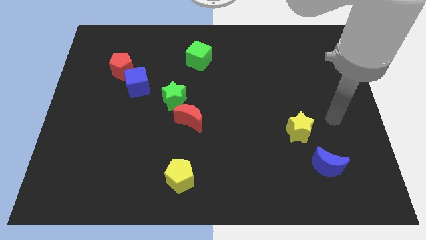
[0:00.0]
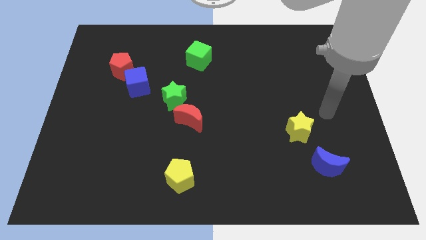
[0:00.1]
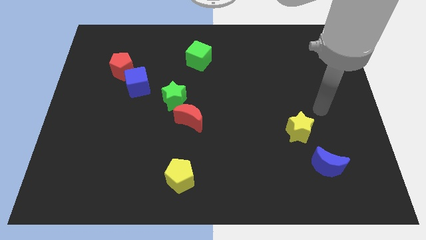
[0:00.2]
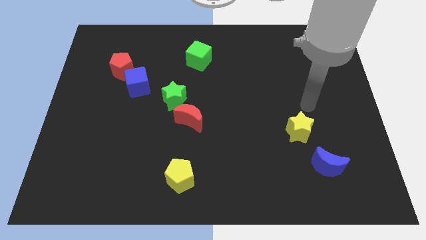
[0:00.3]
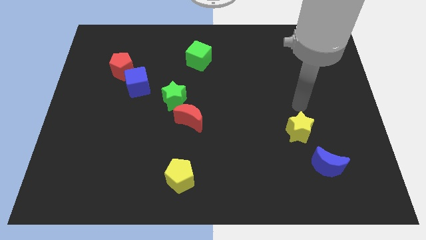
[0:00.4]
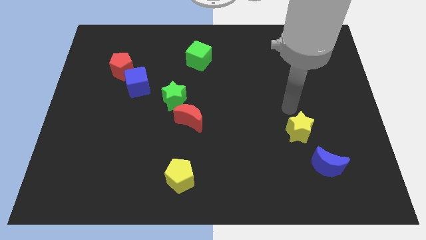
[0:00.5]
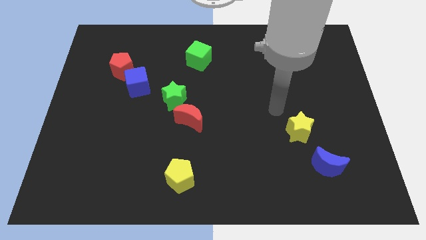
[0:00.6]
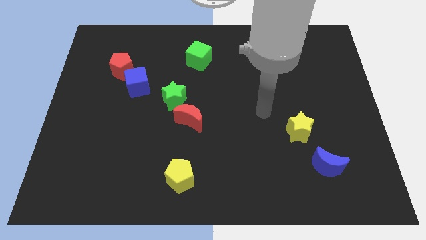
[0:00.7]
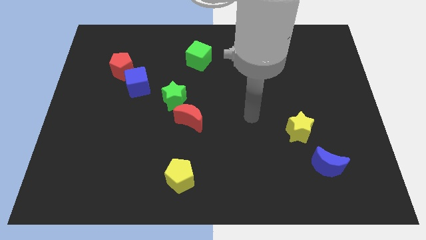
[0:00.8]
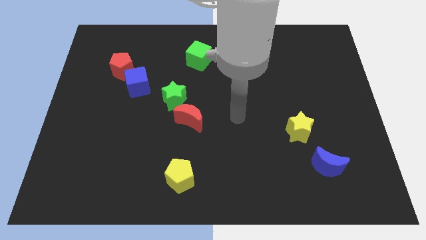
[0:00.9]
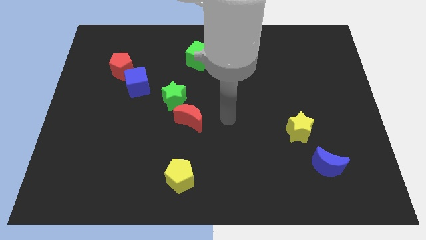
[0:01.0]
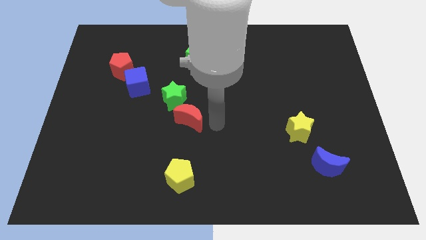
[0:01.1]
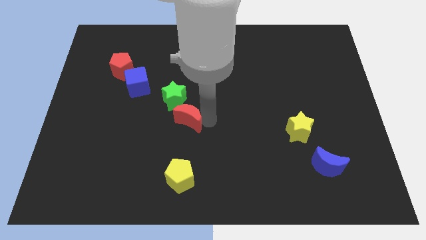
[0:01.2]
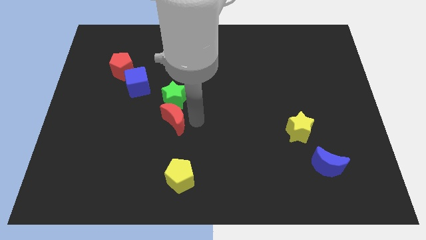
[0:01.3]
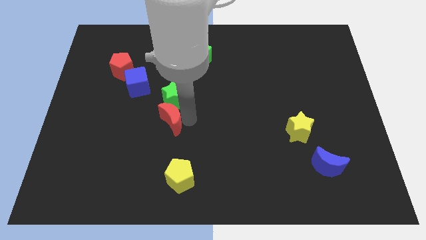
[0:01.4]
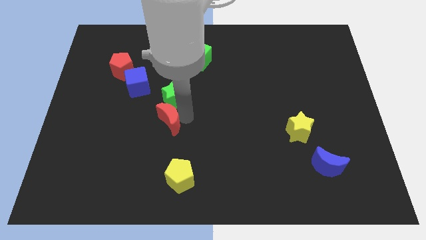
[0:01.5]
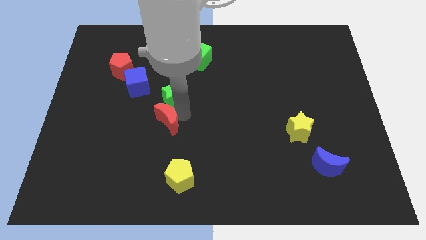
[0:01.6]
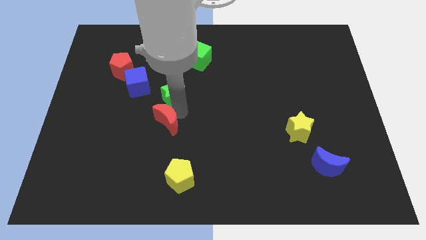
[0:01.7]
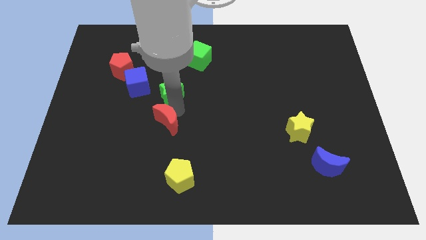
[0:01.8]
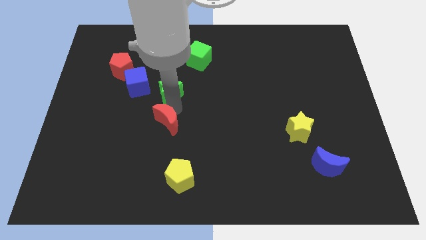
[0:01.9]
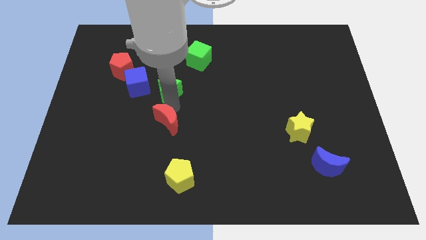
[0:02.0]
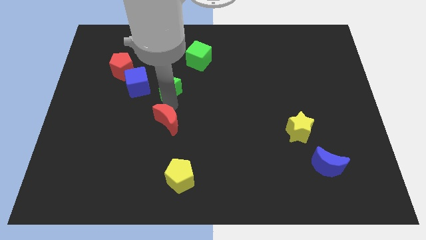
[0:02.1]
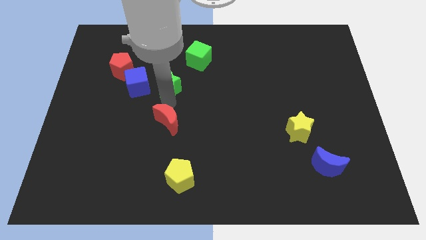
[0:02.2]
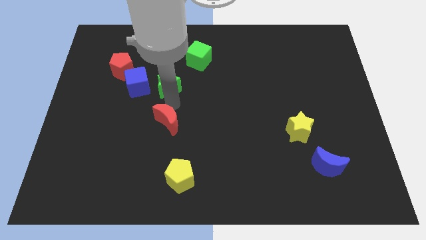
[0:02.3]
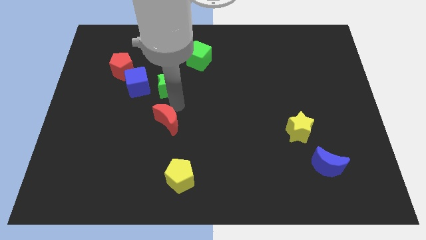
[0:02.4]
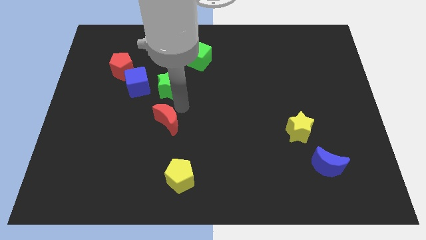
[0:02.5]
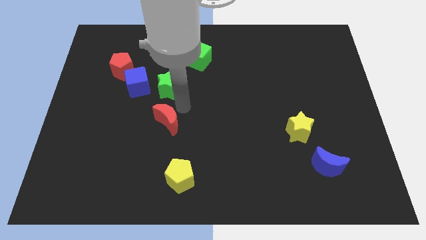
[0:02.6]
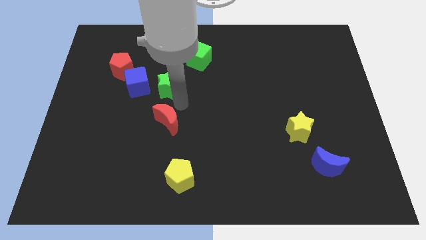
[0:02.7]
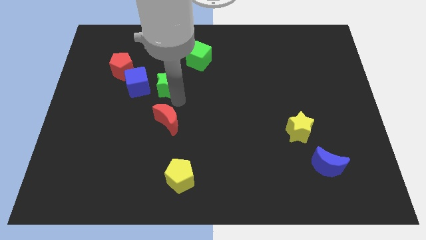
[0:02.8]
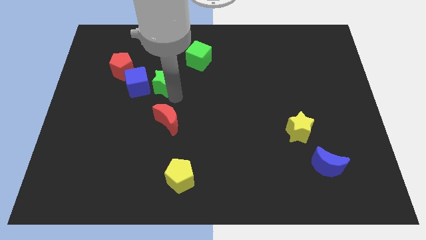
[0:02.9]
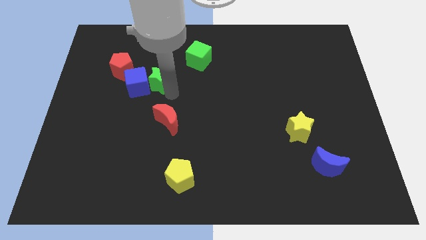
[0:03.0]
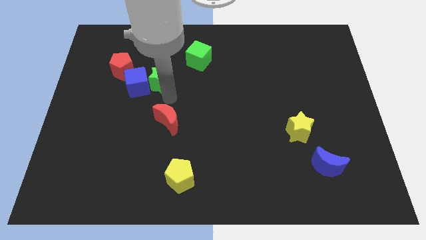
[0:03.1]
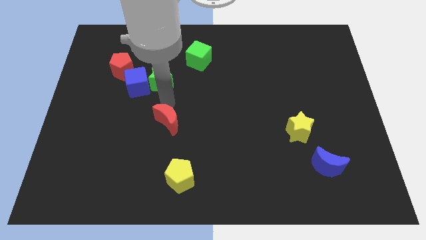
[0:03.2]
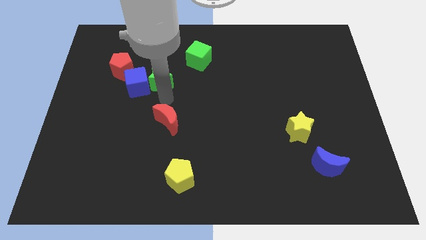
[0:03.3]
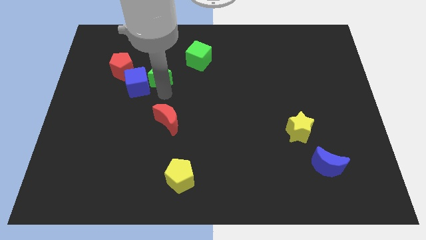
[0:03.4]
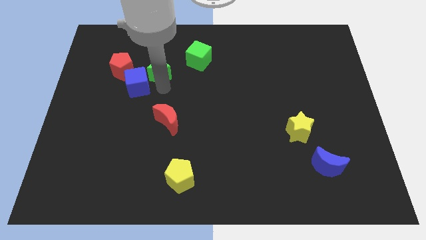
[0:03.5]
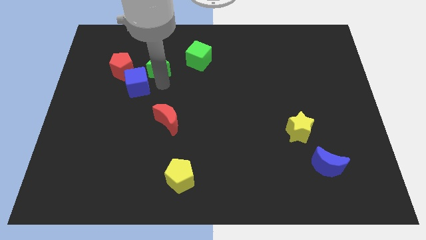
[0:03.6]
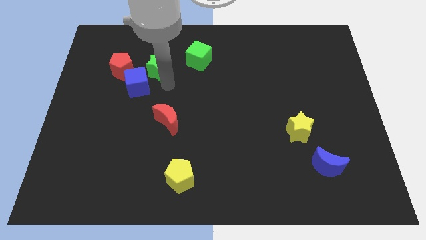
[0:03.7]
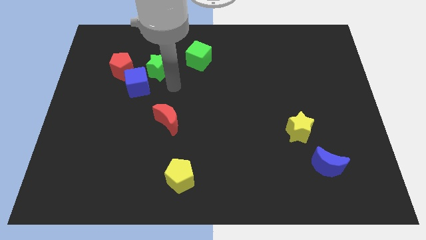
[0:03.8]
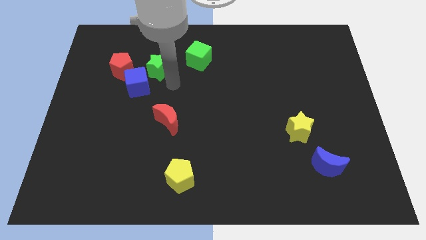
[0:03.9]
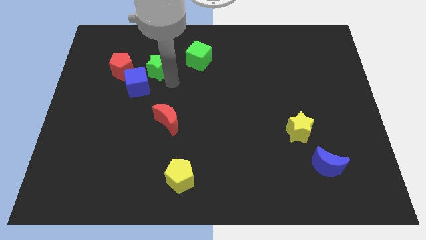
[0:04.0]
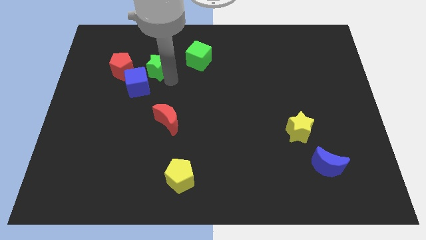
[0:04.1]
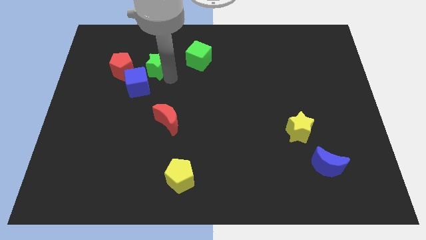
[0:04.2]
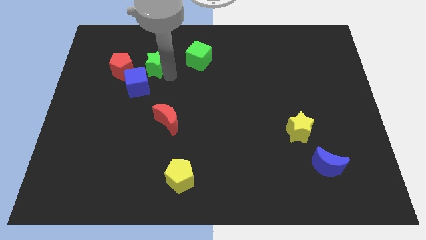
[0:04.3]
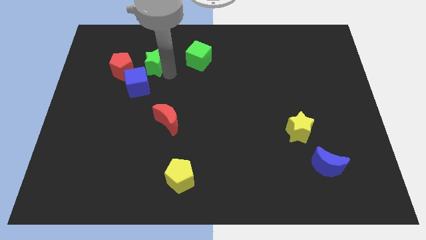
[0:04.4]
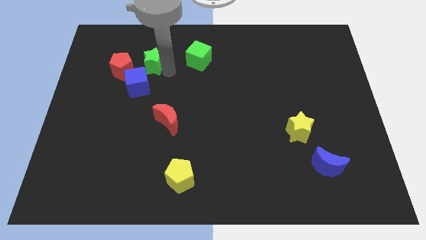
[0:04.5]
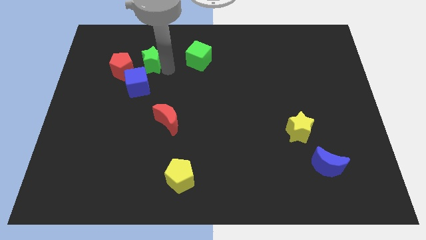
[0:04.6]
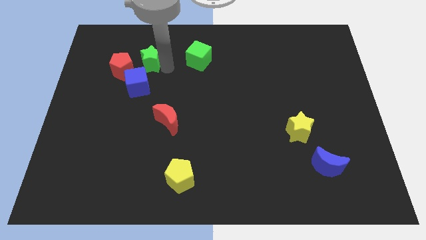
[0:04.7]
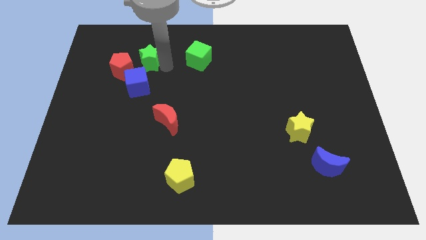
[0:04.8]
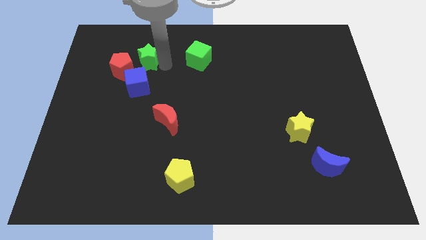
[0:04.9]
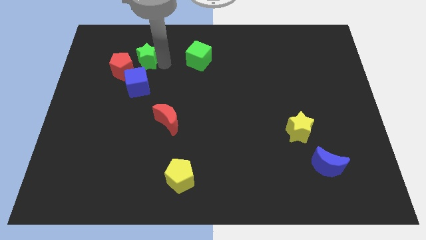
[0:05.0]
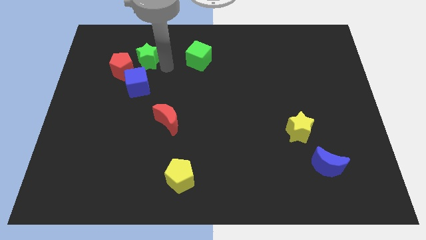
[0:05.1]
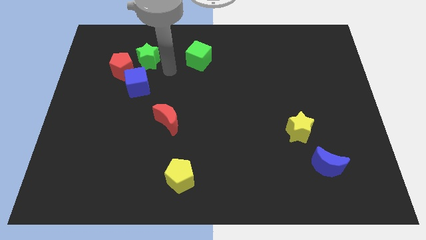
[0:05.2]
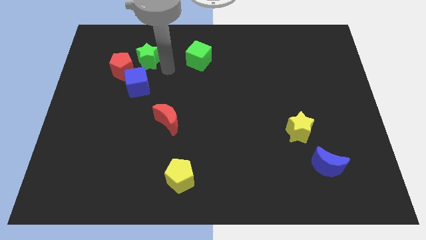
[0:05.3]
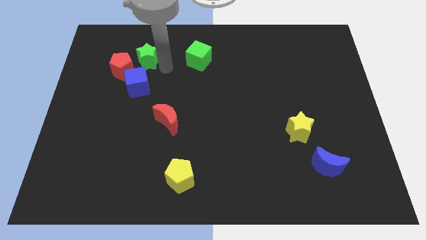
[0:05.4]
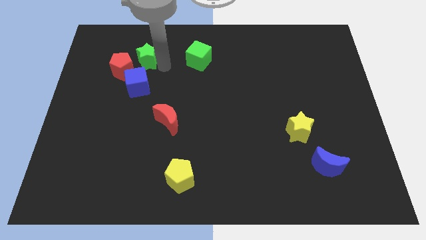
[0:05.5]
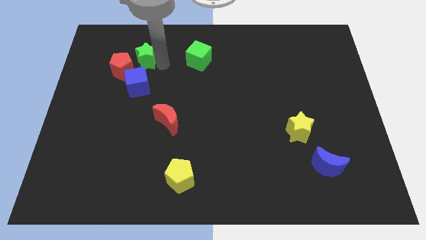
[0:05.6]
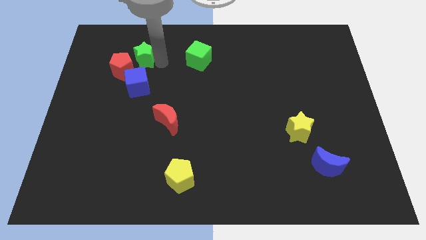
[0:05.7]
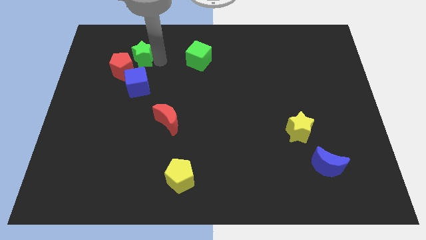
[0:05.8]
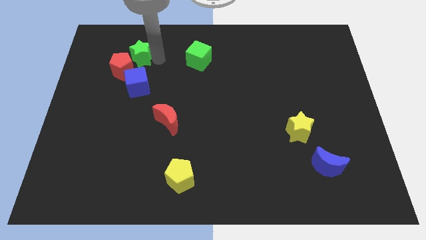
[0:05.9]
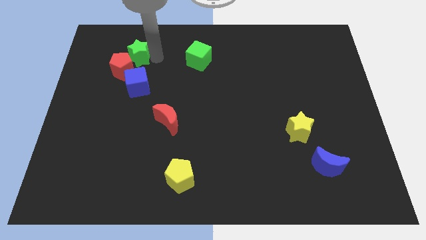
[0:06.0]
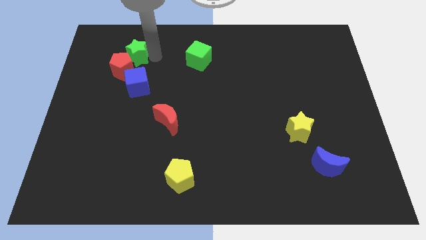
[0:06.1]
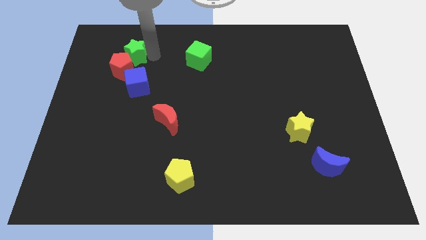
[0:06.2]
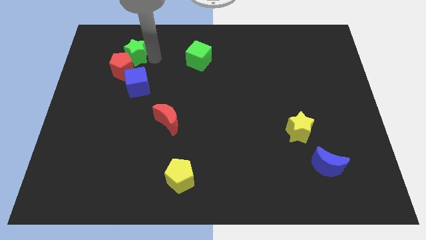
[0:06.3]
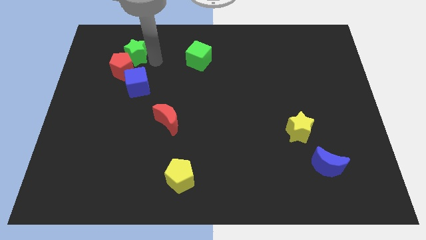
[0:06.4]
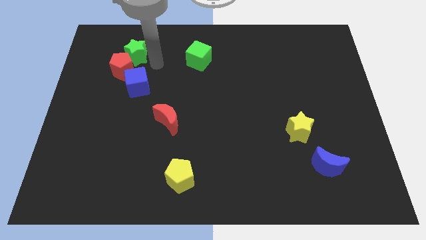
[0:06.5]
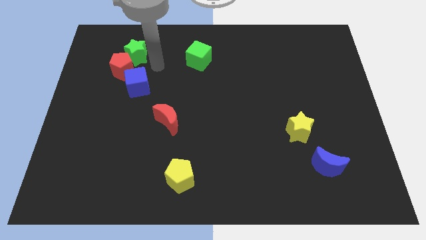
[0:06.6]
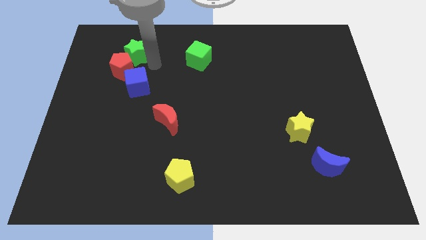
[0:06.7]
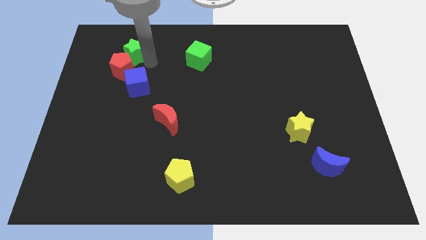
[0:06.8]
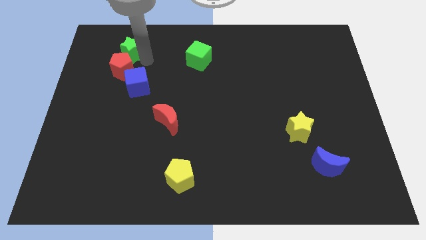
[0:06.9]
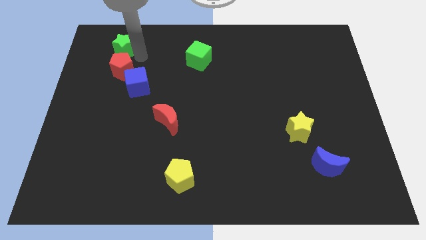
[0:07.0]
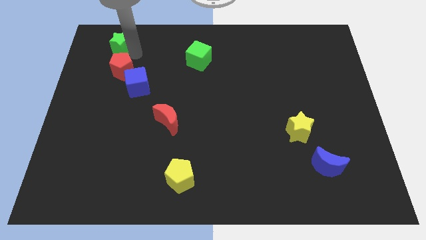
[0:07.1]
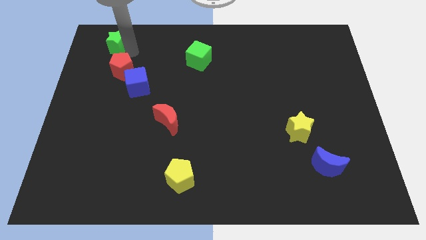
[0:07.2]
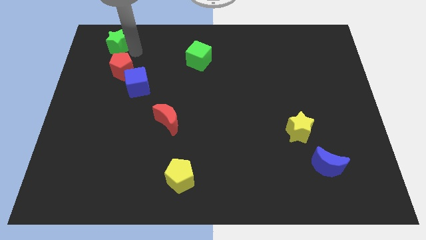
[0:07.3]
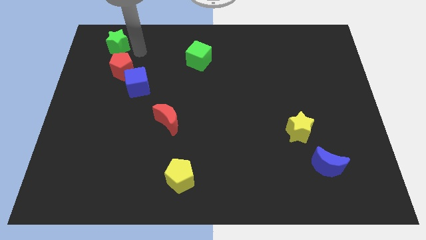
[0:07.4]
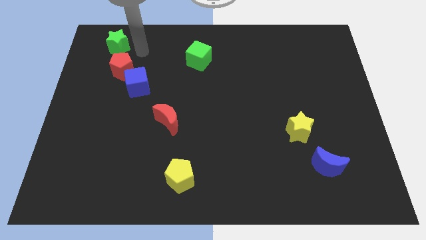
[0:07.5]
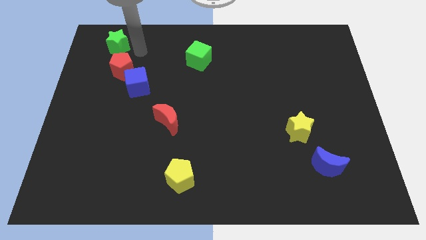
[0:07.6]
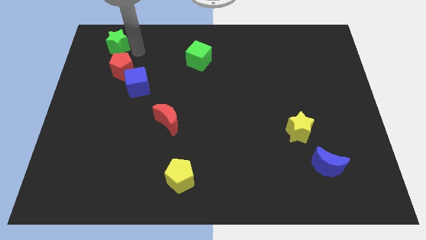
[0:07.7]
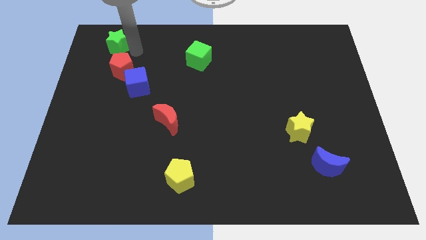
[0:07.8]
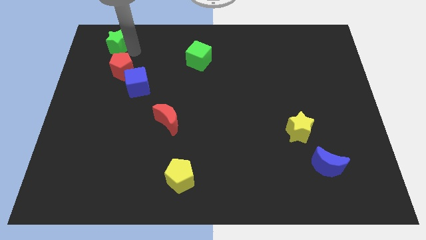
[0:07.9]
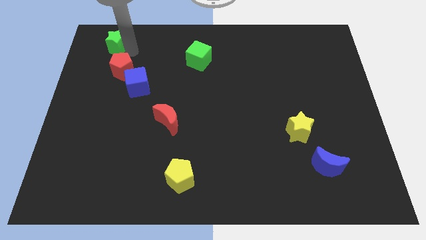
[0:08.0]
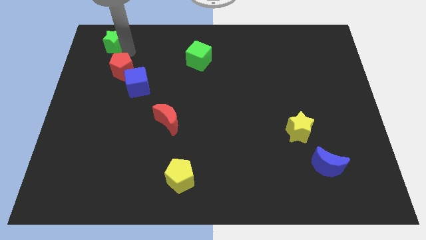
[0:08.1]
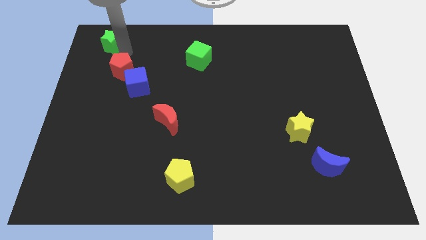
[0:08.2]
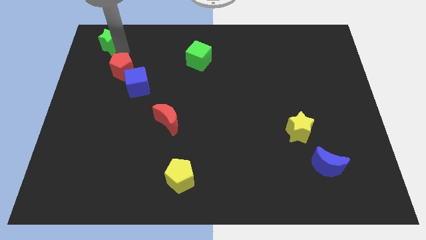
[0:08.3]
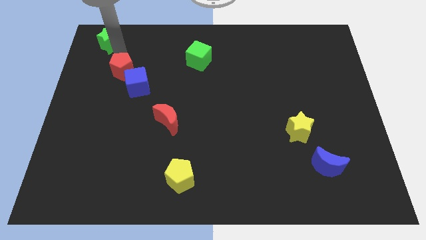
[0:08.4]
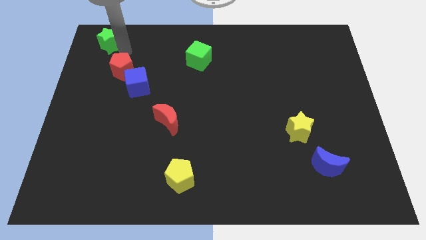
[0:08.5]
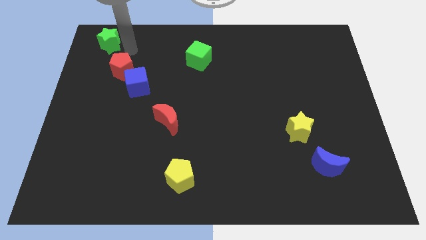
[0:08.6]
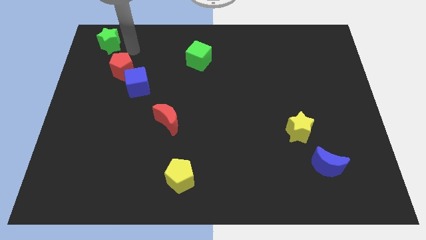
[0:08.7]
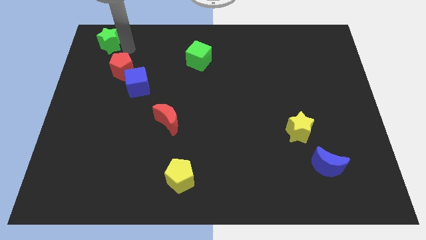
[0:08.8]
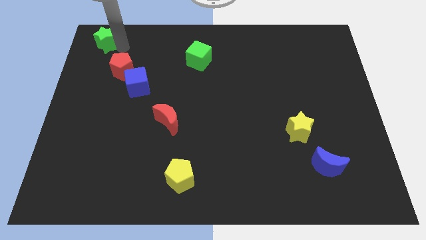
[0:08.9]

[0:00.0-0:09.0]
put the green star to the upper left corner
